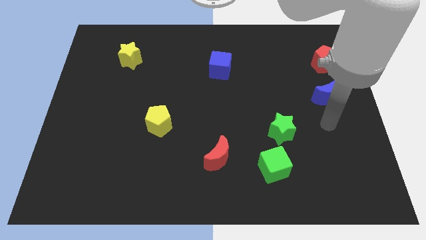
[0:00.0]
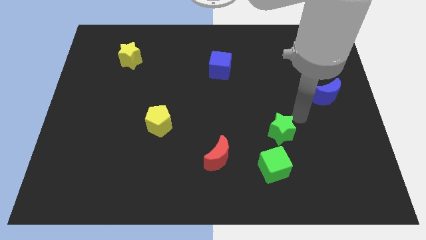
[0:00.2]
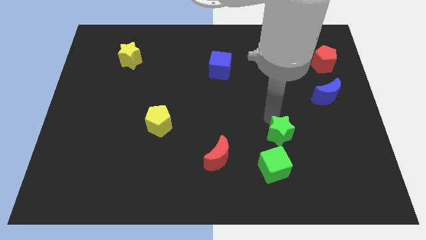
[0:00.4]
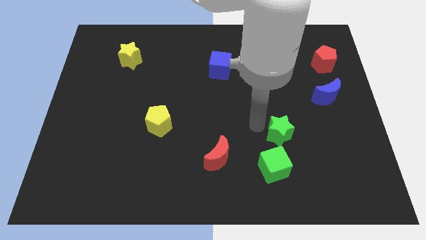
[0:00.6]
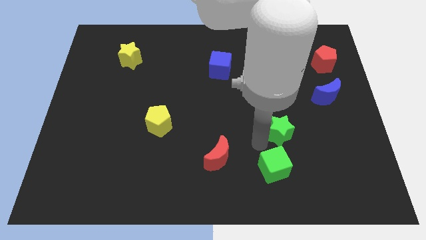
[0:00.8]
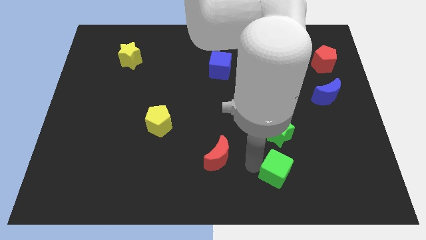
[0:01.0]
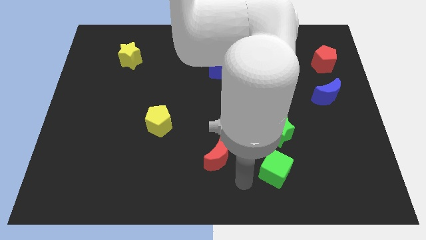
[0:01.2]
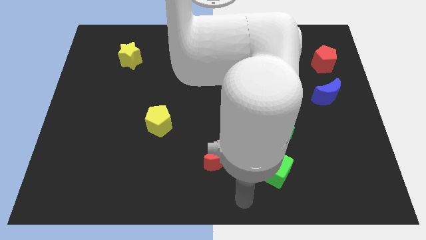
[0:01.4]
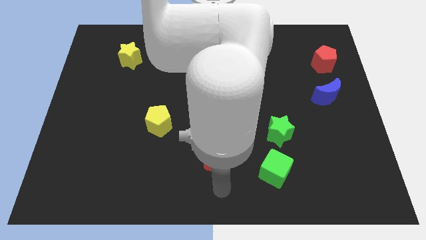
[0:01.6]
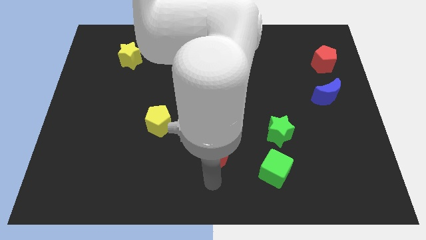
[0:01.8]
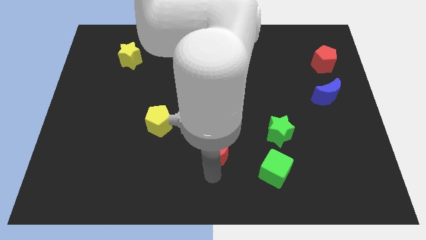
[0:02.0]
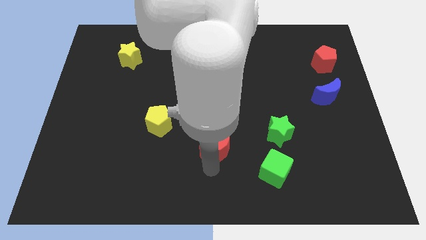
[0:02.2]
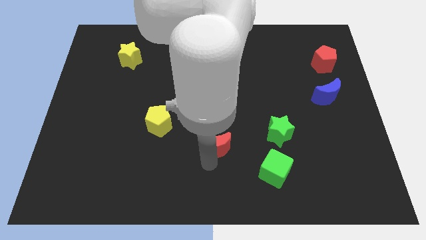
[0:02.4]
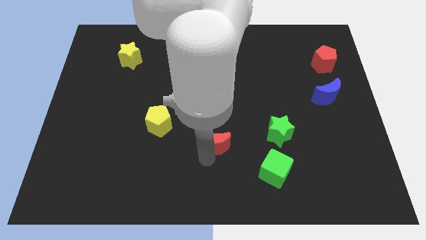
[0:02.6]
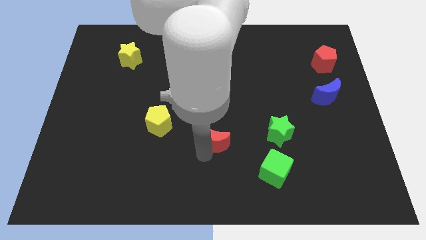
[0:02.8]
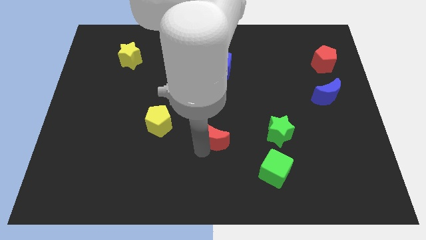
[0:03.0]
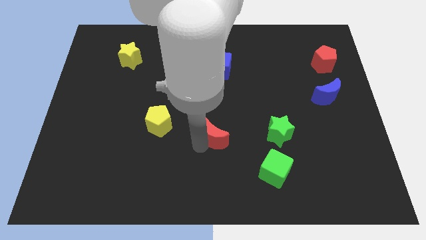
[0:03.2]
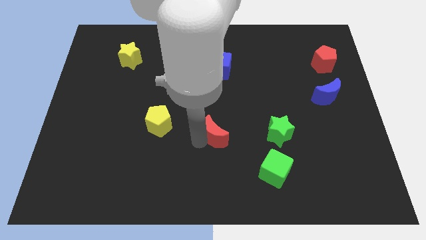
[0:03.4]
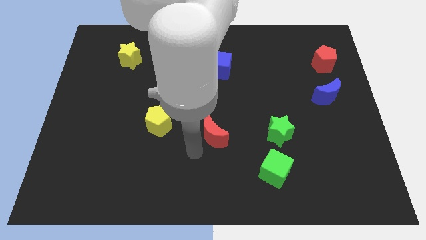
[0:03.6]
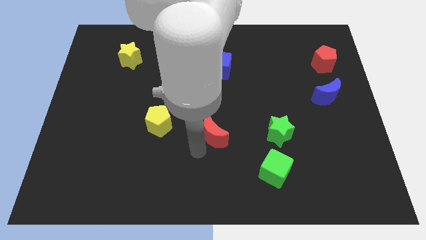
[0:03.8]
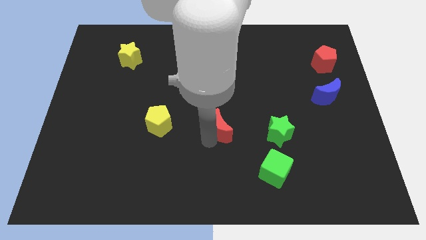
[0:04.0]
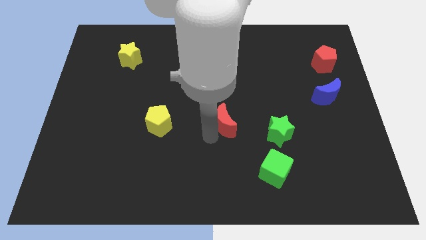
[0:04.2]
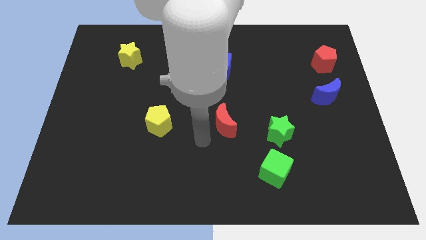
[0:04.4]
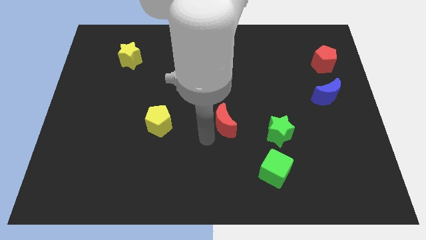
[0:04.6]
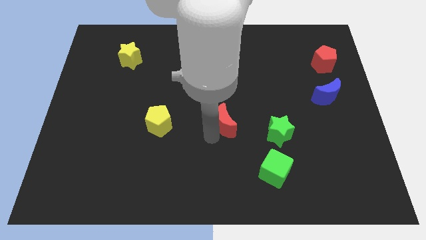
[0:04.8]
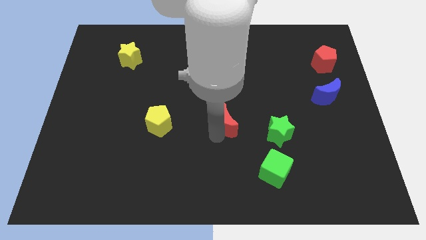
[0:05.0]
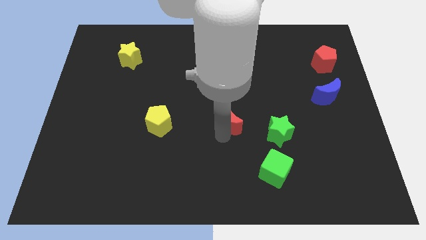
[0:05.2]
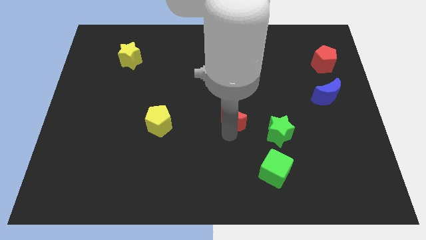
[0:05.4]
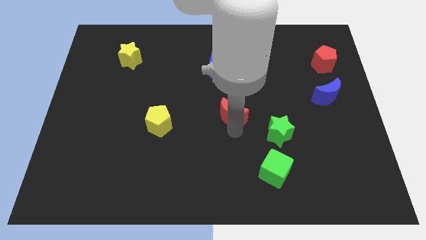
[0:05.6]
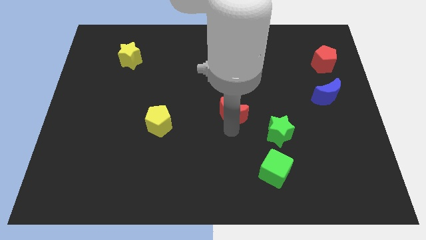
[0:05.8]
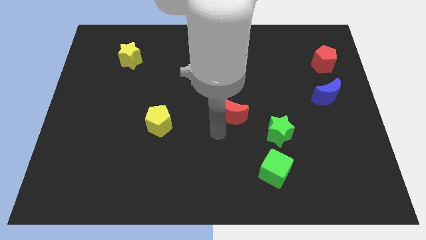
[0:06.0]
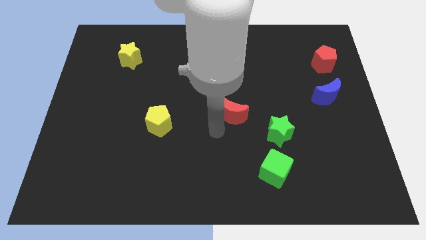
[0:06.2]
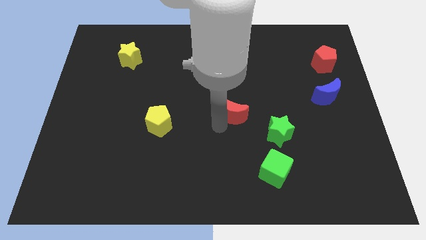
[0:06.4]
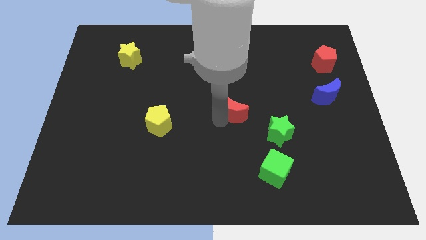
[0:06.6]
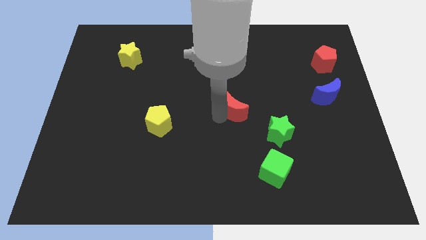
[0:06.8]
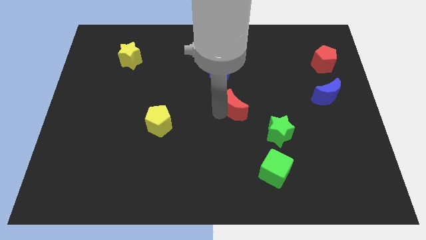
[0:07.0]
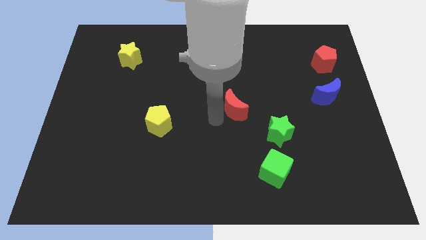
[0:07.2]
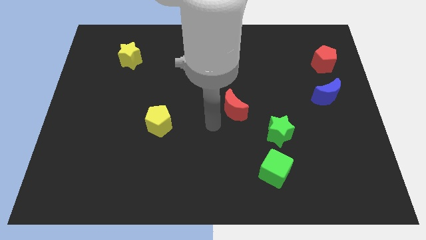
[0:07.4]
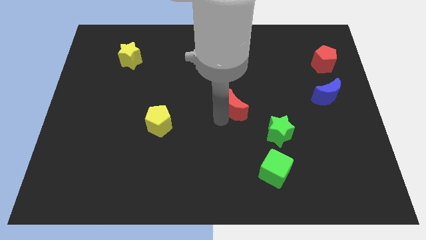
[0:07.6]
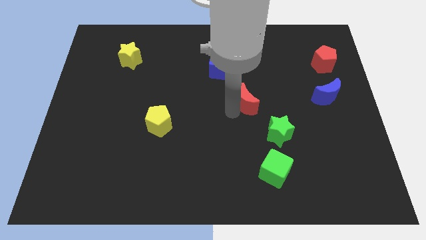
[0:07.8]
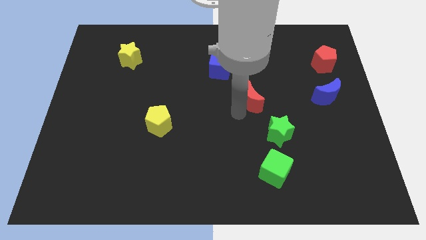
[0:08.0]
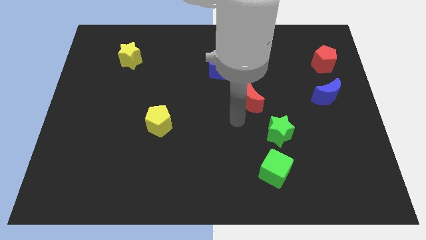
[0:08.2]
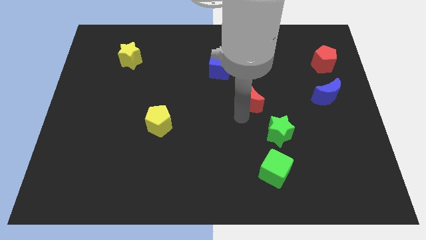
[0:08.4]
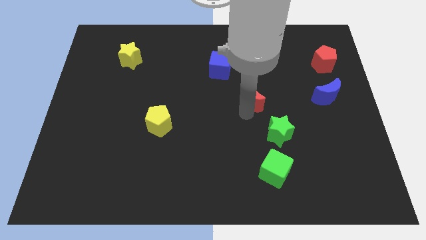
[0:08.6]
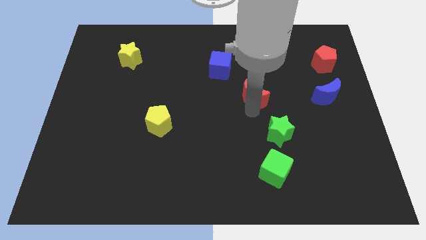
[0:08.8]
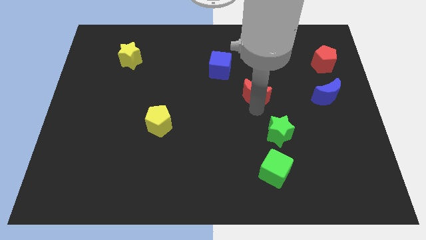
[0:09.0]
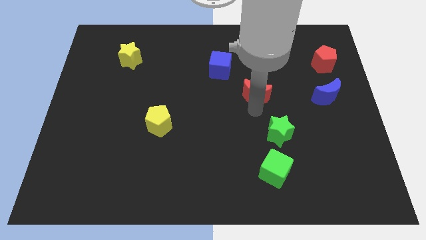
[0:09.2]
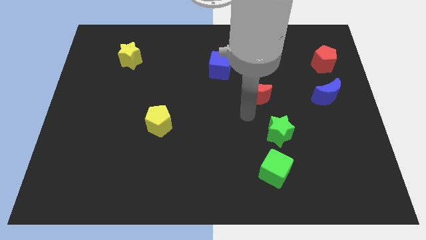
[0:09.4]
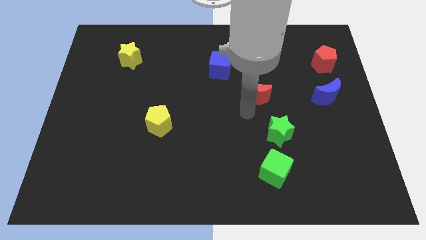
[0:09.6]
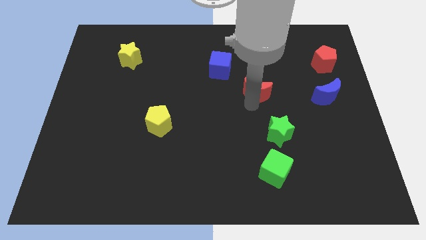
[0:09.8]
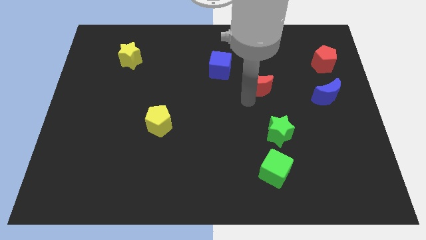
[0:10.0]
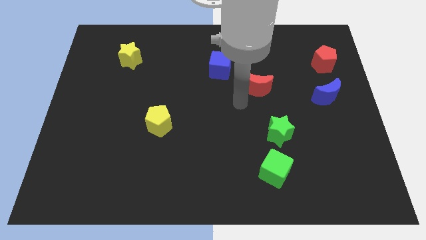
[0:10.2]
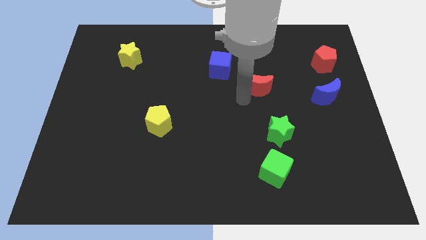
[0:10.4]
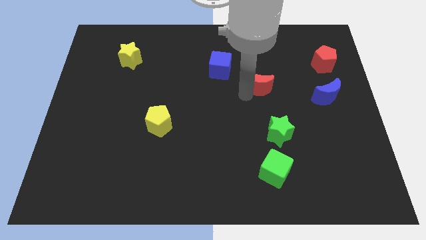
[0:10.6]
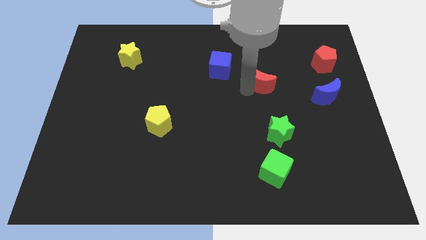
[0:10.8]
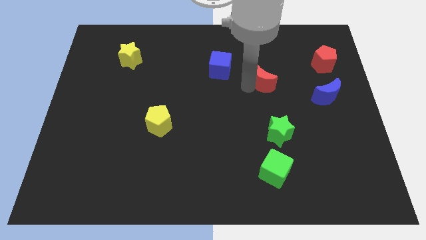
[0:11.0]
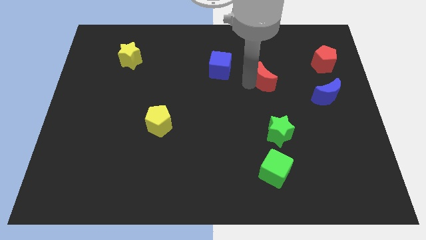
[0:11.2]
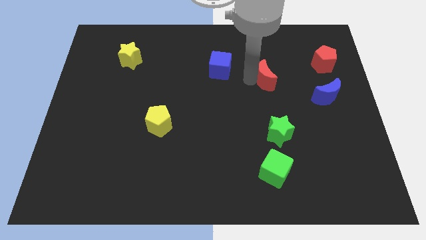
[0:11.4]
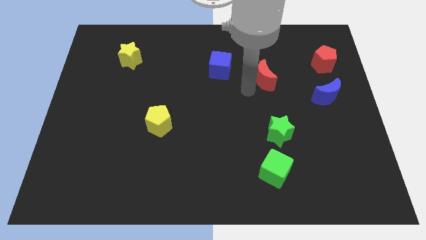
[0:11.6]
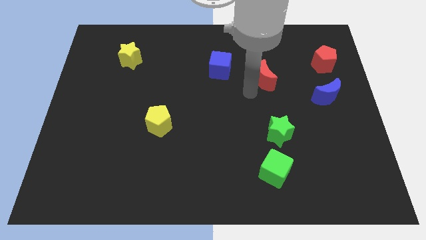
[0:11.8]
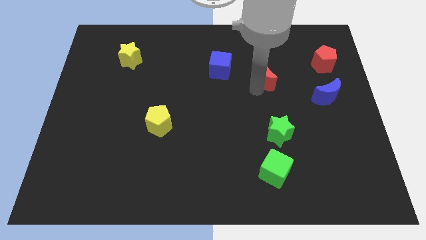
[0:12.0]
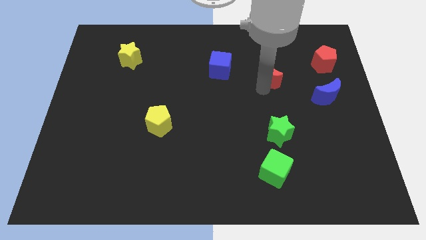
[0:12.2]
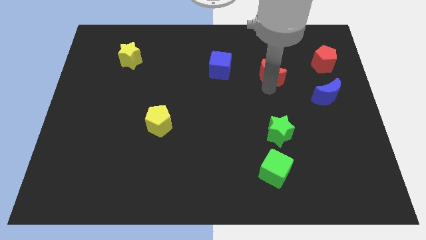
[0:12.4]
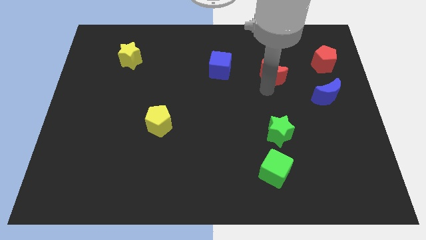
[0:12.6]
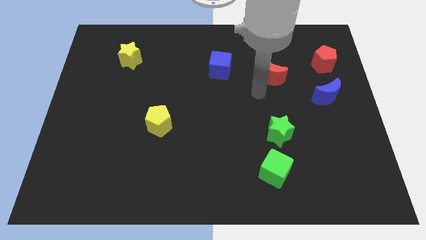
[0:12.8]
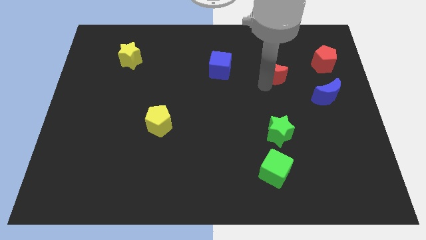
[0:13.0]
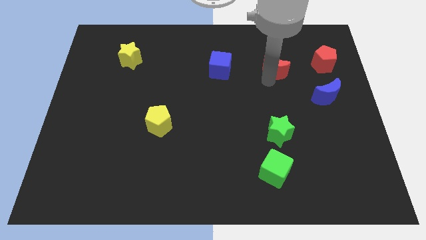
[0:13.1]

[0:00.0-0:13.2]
push the red moon to the left of the red pentagon
